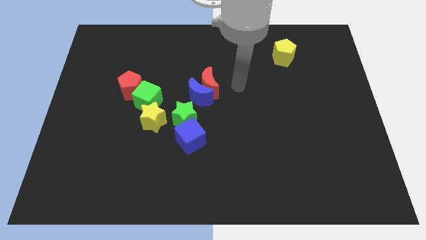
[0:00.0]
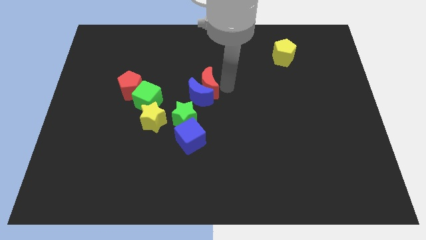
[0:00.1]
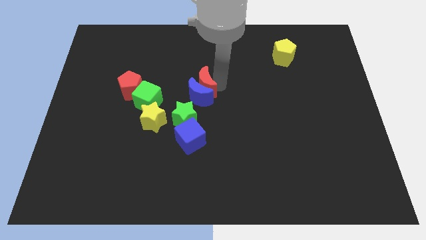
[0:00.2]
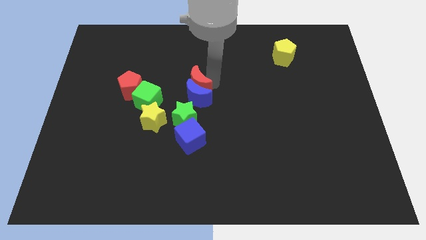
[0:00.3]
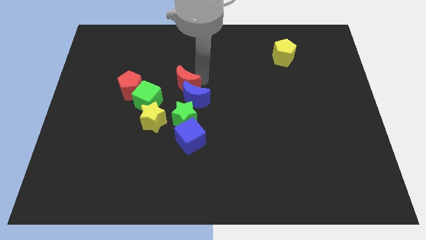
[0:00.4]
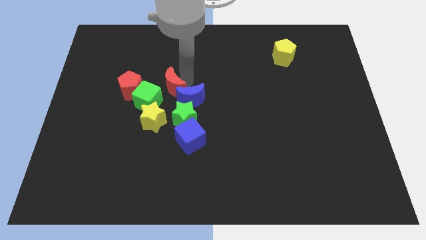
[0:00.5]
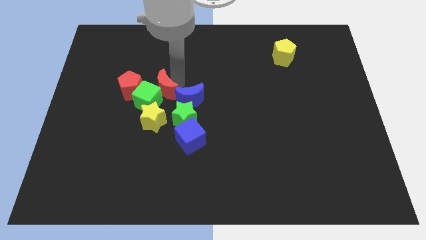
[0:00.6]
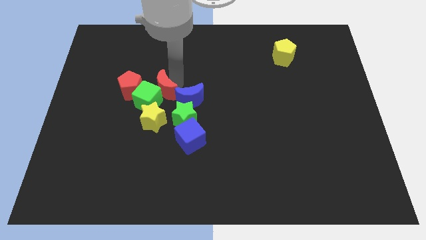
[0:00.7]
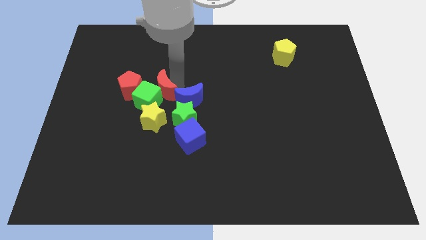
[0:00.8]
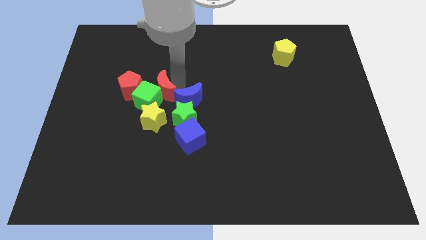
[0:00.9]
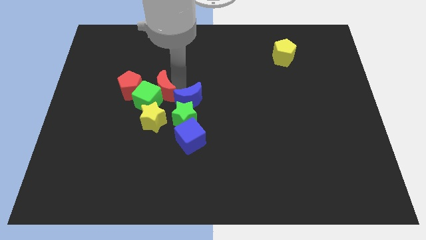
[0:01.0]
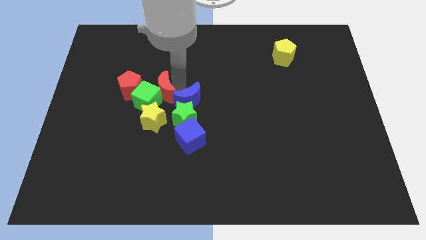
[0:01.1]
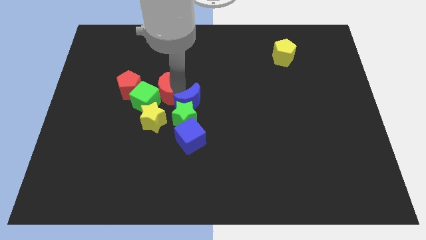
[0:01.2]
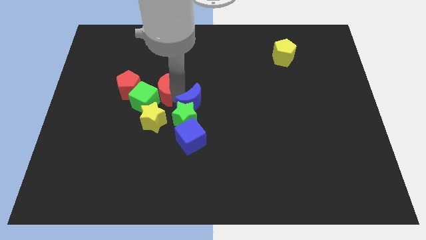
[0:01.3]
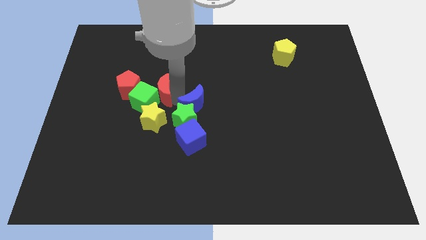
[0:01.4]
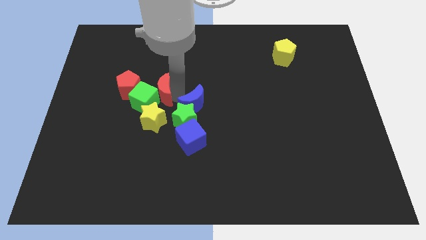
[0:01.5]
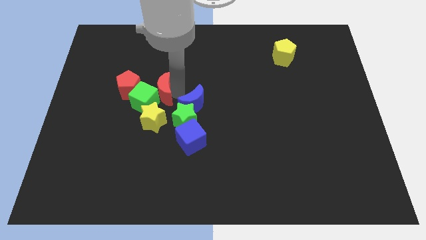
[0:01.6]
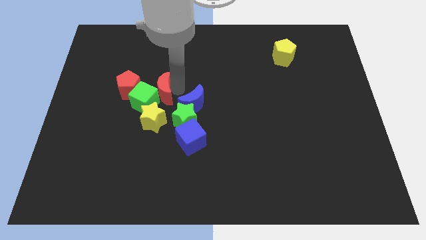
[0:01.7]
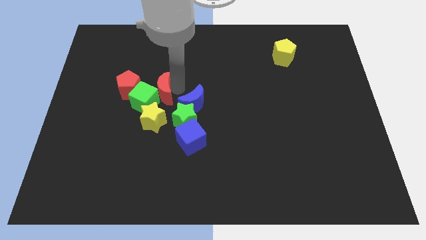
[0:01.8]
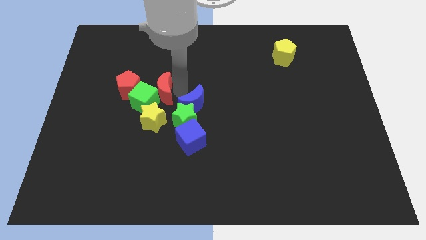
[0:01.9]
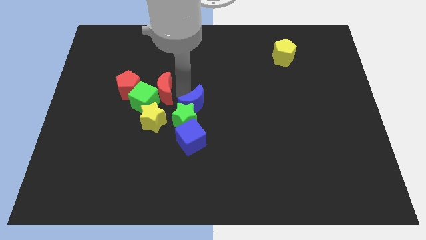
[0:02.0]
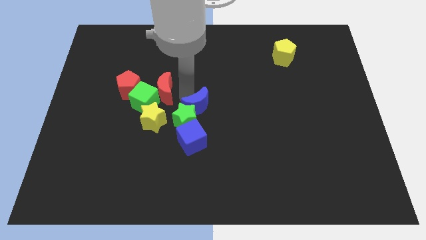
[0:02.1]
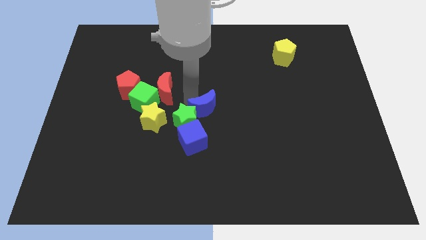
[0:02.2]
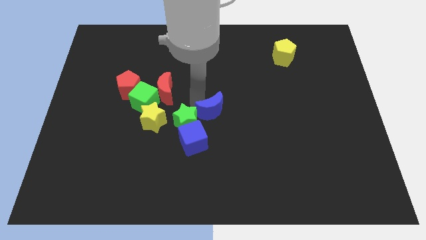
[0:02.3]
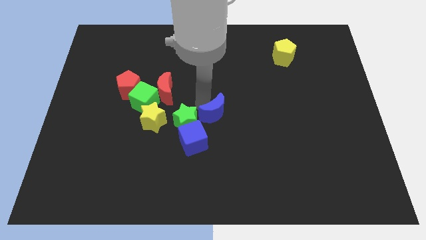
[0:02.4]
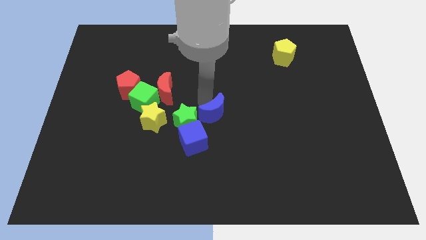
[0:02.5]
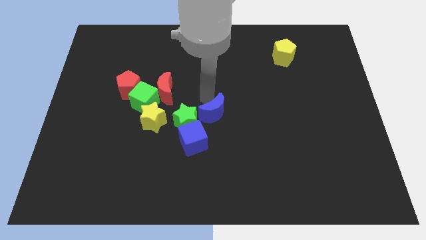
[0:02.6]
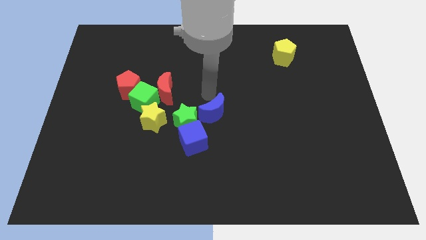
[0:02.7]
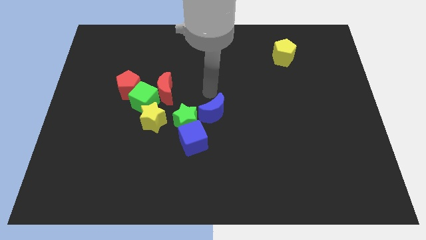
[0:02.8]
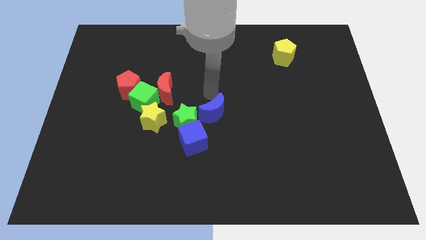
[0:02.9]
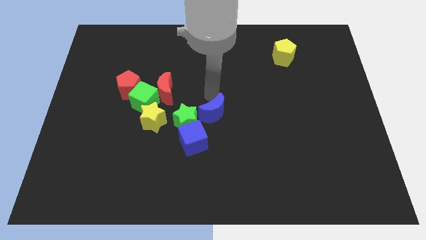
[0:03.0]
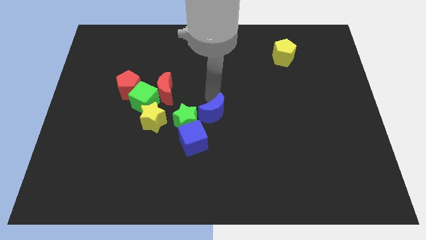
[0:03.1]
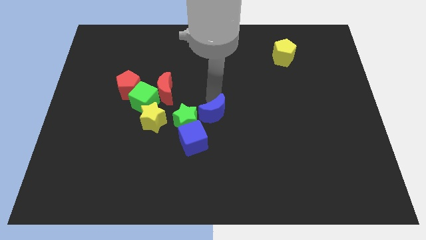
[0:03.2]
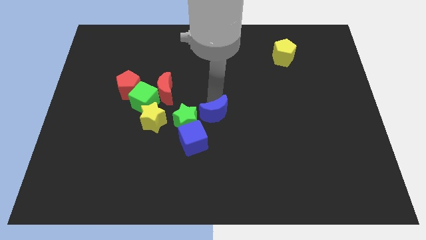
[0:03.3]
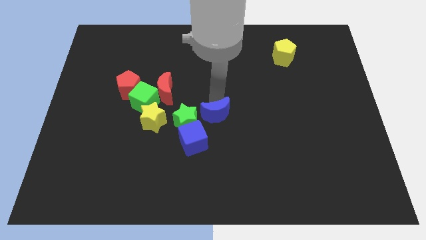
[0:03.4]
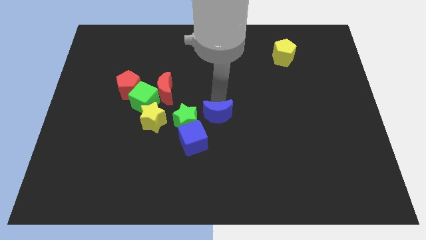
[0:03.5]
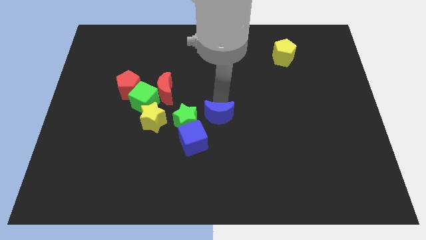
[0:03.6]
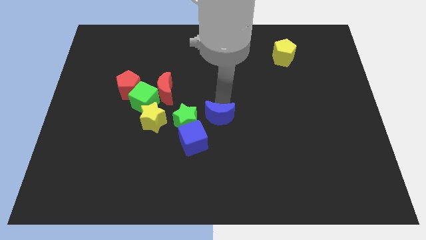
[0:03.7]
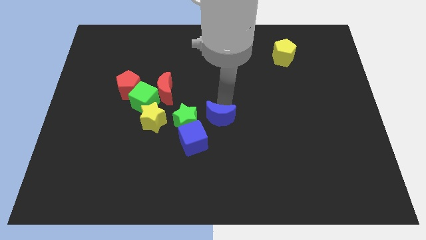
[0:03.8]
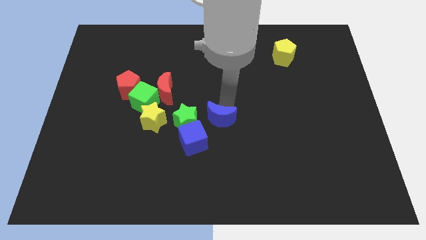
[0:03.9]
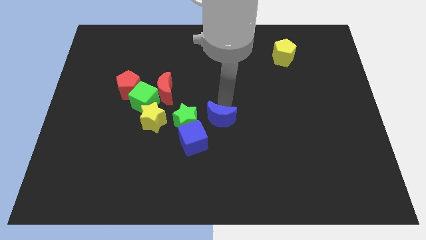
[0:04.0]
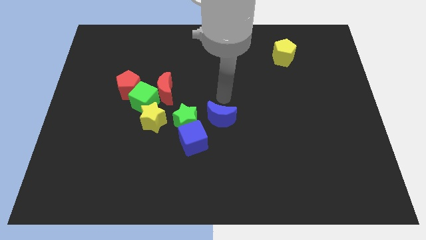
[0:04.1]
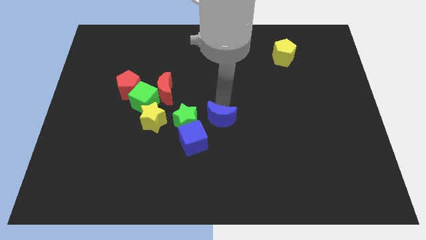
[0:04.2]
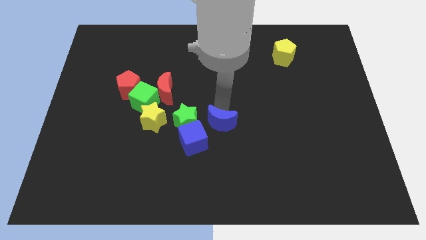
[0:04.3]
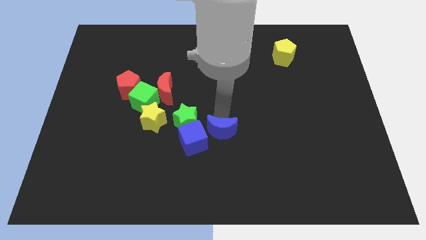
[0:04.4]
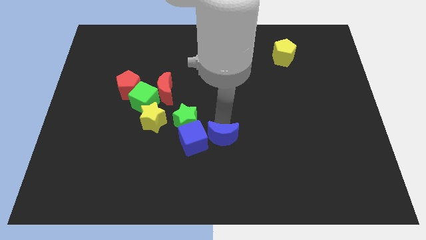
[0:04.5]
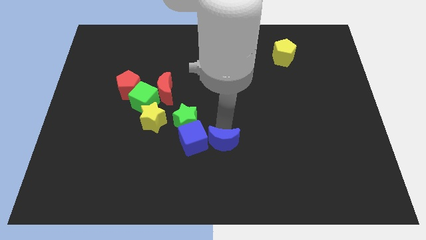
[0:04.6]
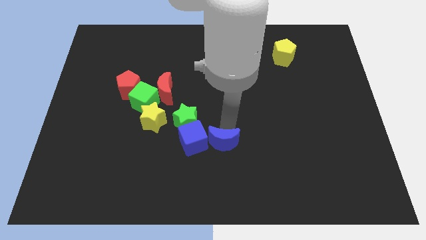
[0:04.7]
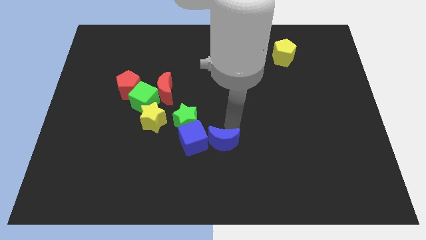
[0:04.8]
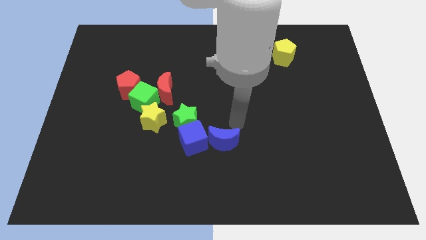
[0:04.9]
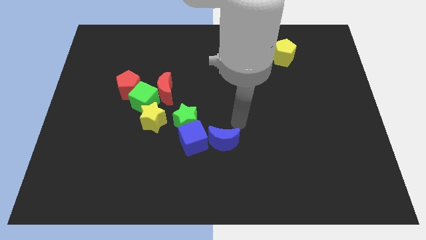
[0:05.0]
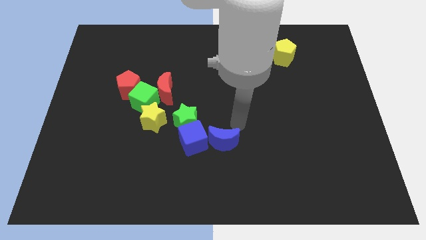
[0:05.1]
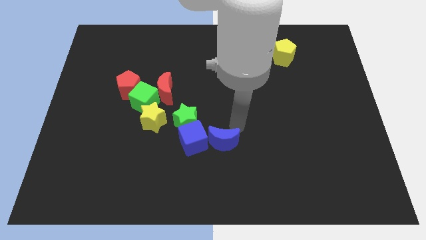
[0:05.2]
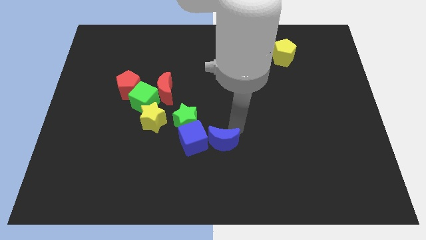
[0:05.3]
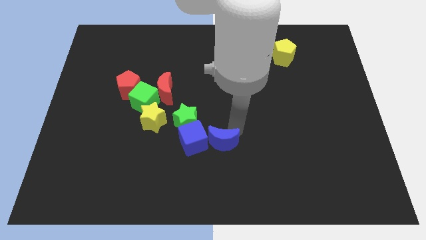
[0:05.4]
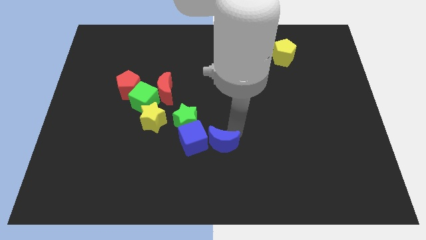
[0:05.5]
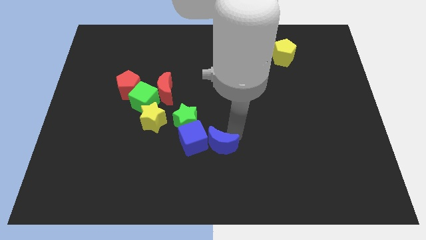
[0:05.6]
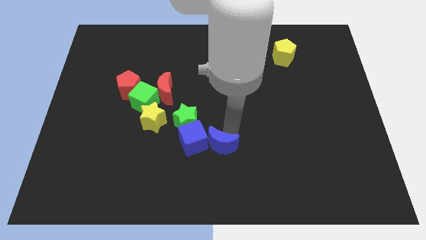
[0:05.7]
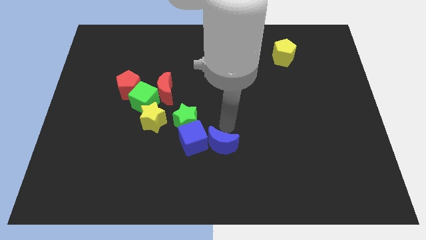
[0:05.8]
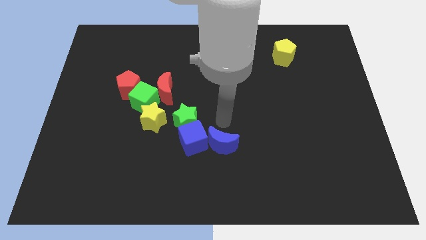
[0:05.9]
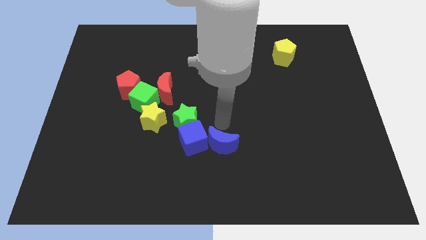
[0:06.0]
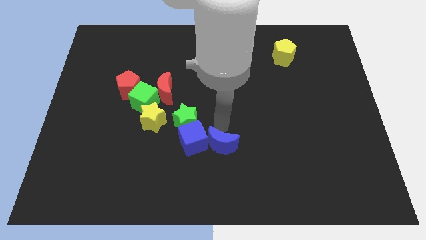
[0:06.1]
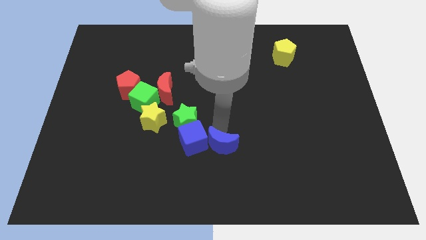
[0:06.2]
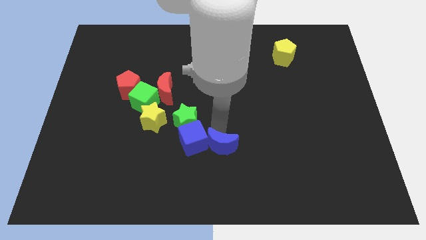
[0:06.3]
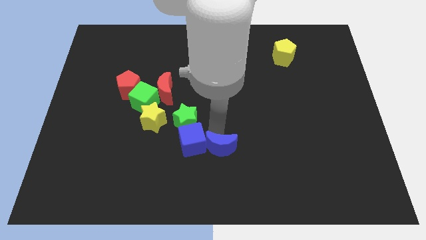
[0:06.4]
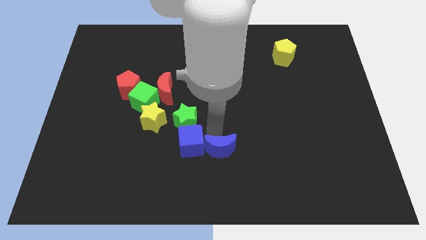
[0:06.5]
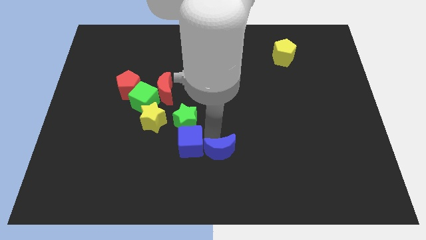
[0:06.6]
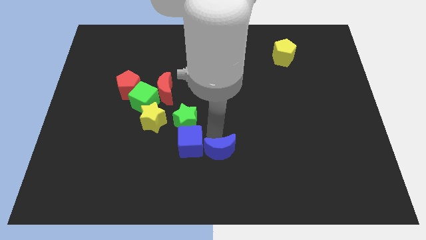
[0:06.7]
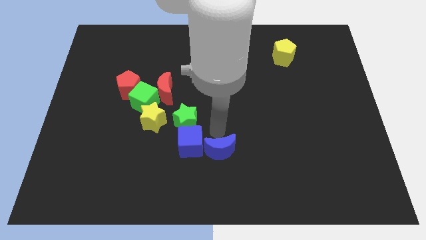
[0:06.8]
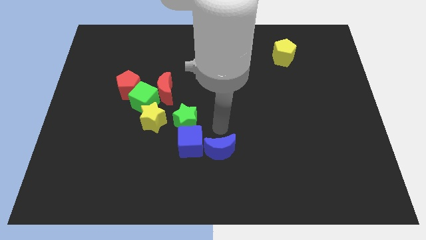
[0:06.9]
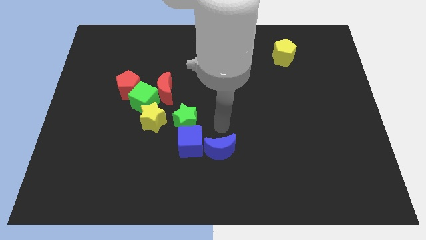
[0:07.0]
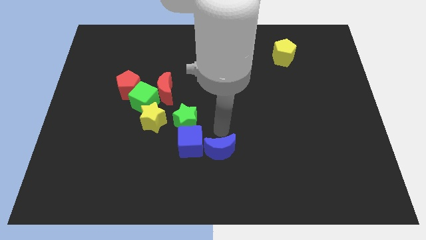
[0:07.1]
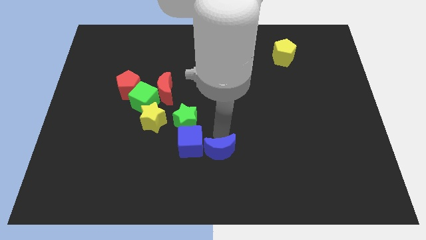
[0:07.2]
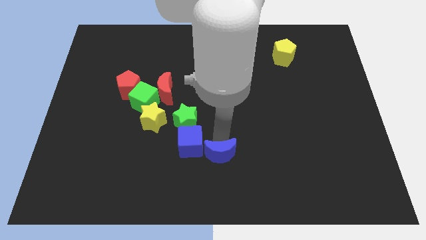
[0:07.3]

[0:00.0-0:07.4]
push the blue moon to the bottom side
